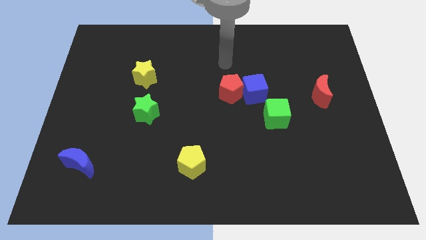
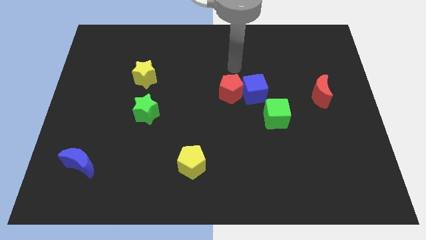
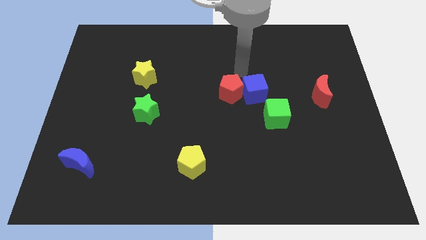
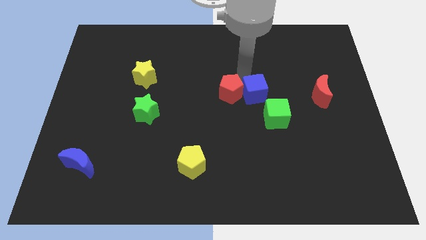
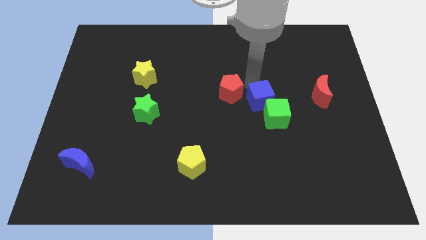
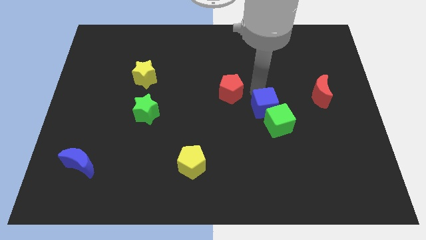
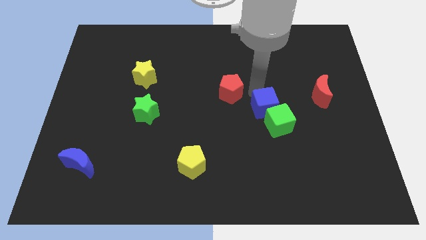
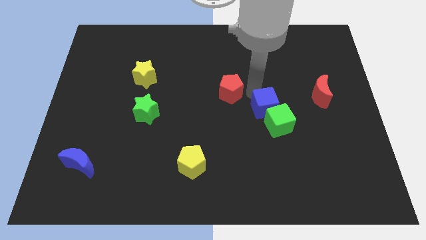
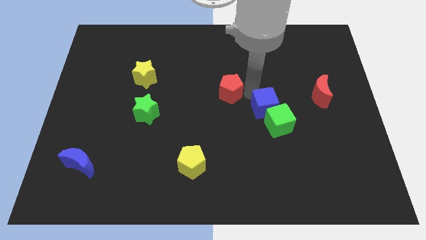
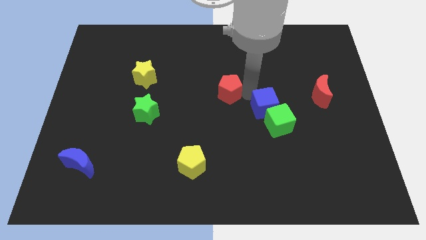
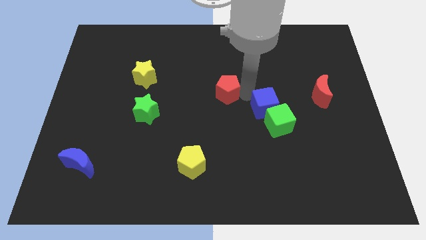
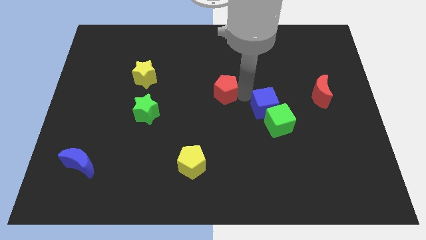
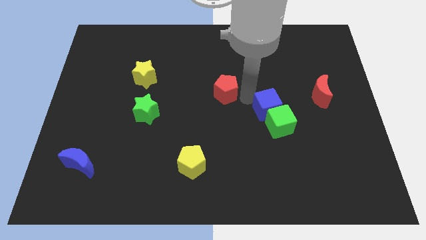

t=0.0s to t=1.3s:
move the red pentagon away from the blue cube

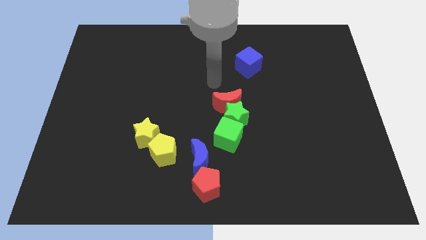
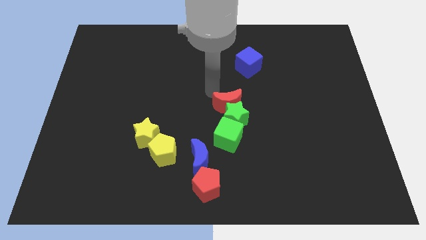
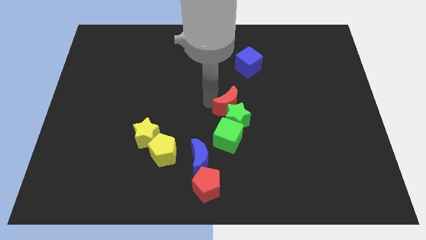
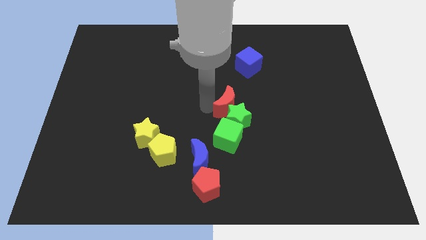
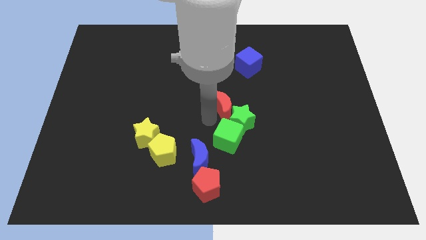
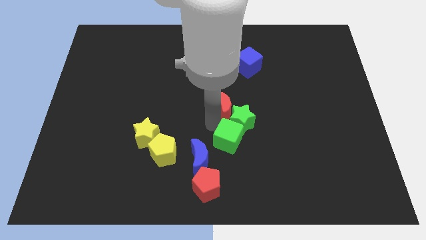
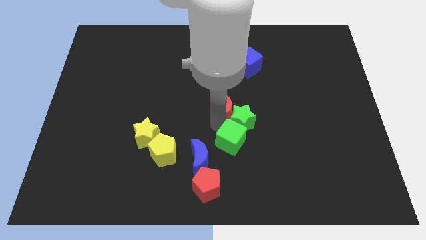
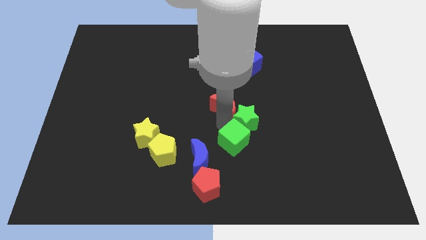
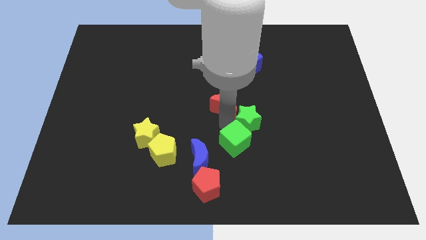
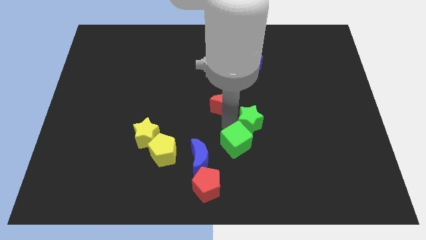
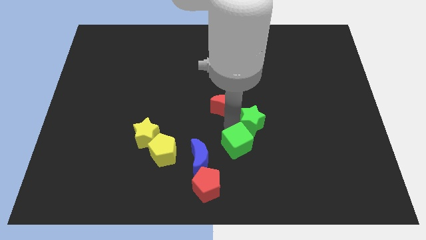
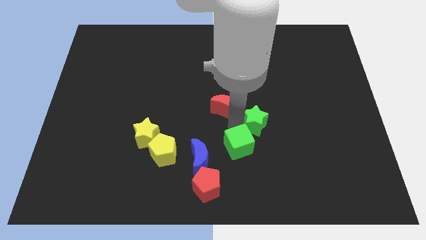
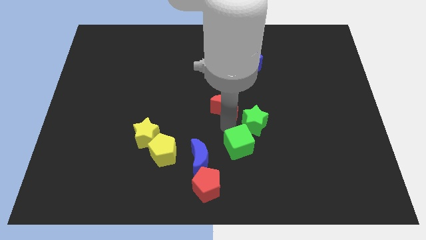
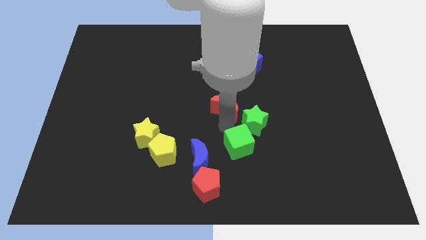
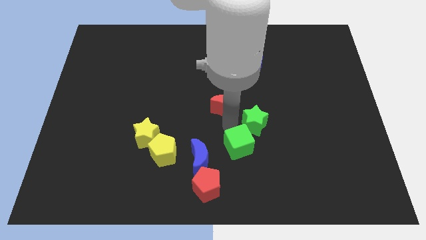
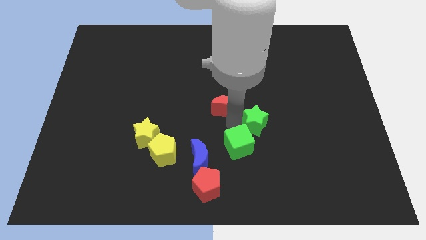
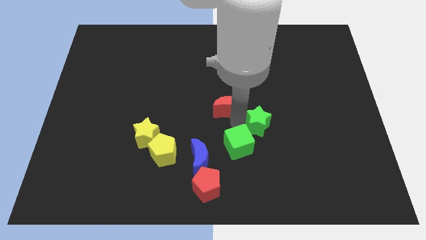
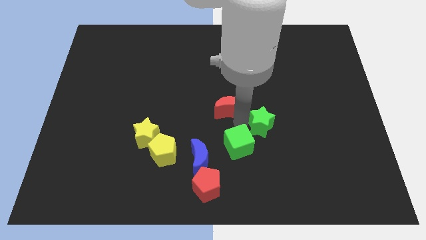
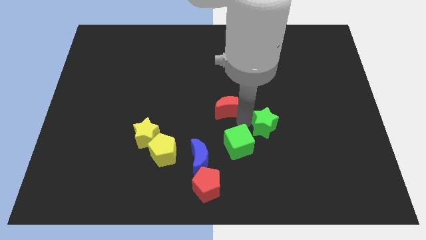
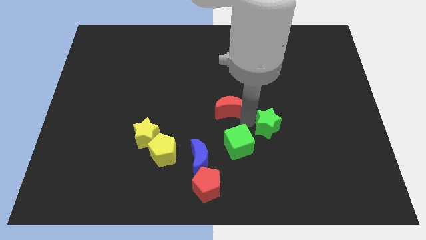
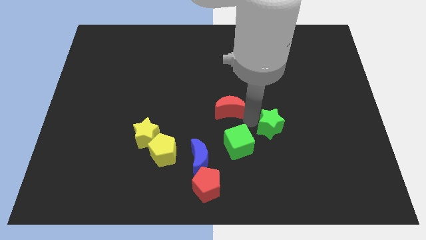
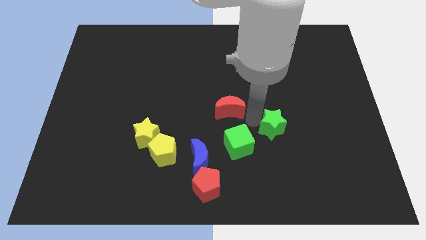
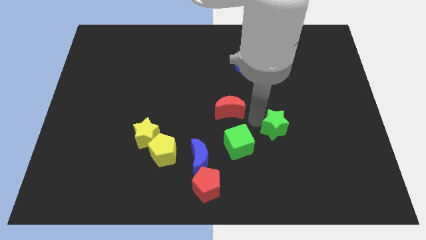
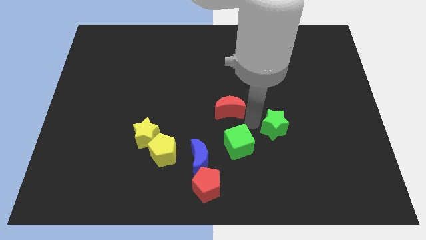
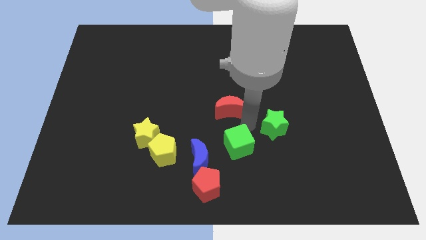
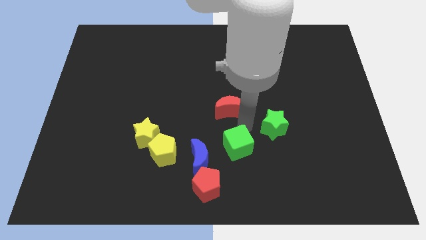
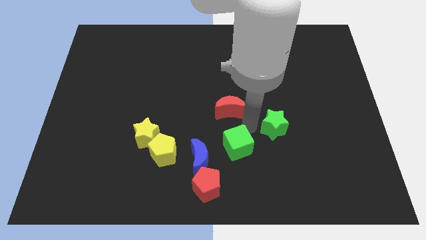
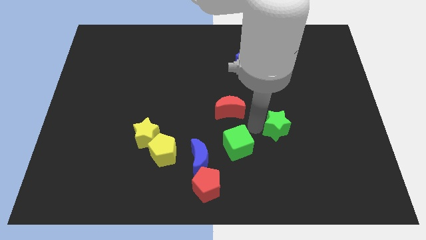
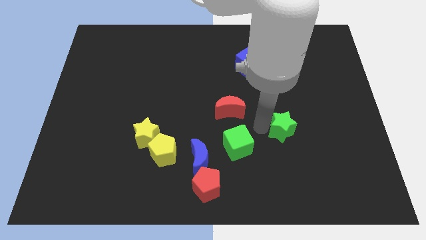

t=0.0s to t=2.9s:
move the green star away from the red moon and green cube

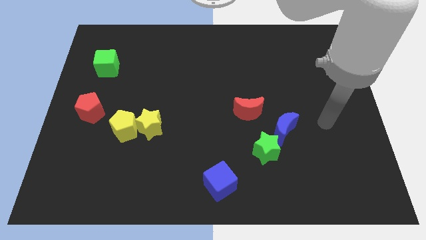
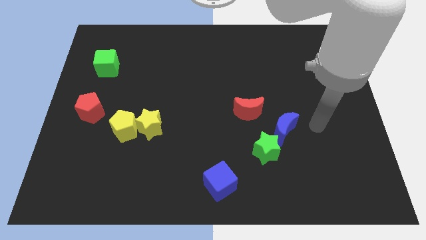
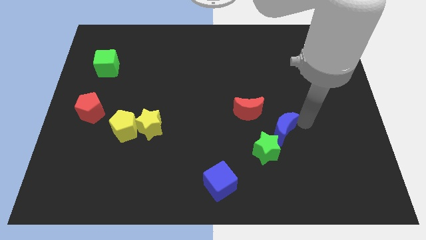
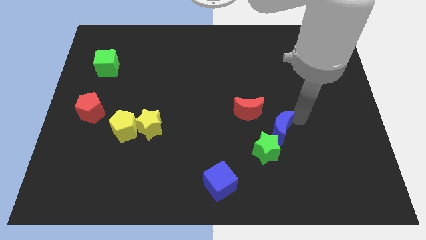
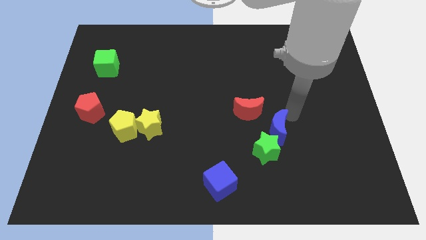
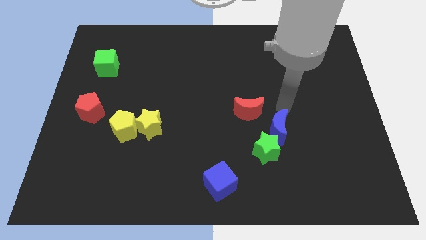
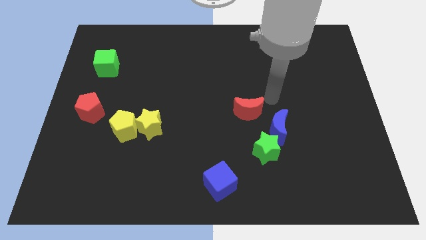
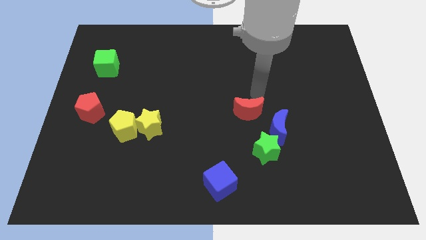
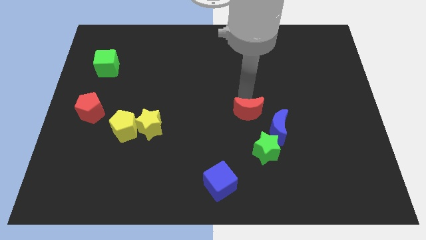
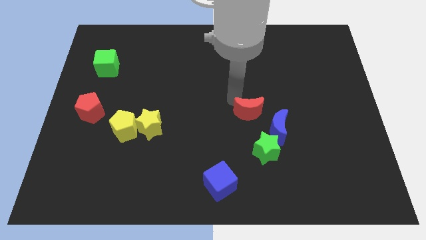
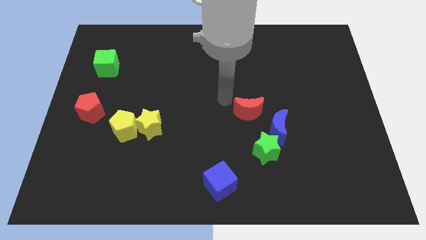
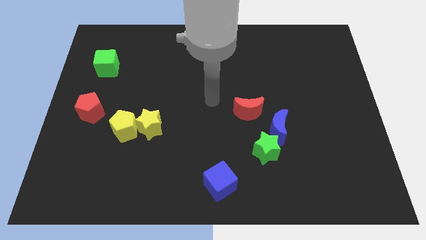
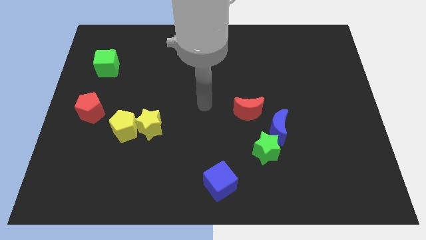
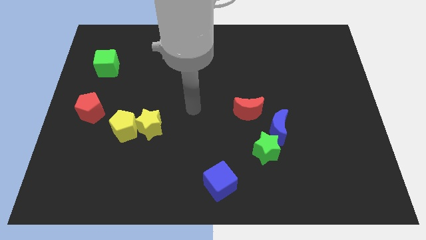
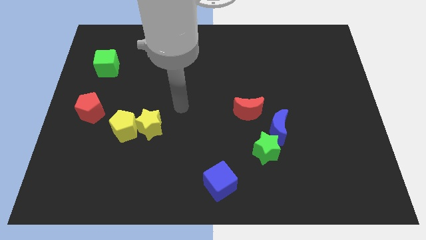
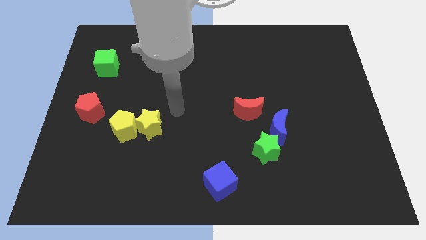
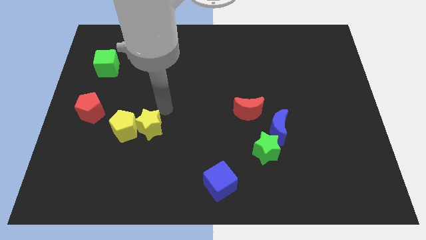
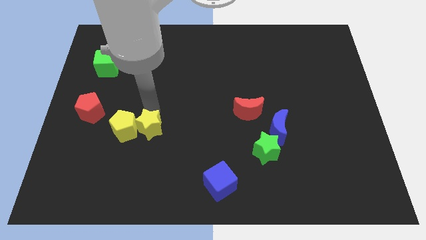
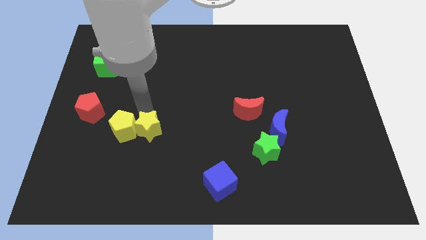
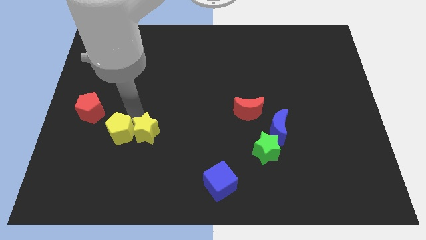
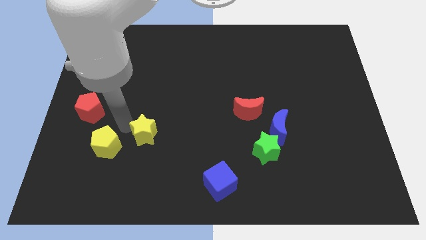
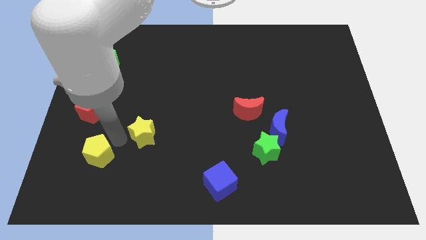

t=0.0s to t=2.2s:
move the yellow star away from the yellow pentagon

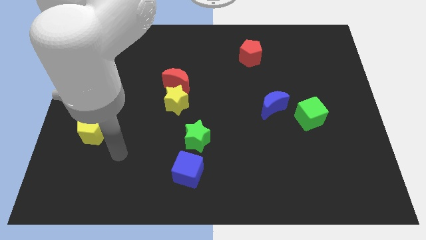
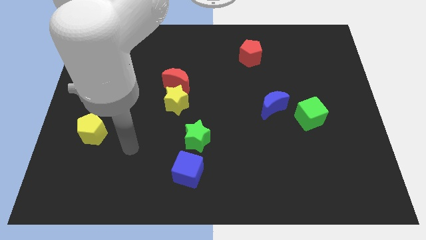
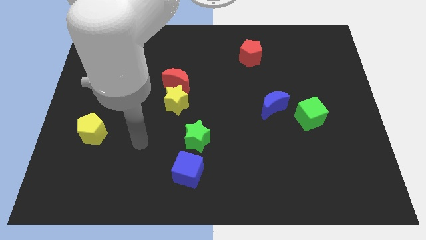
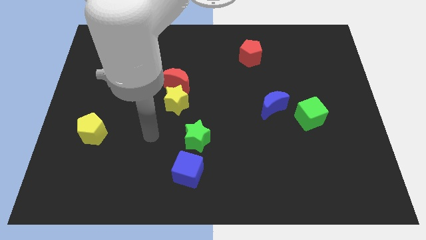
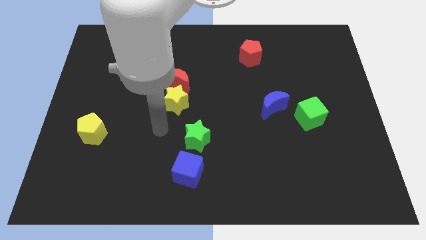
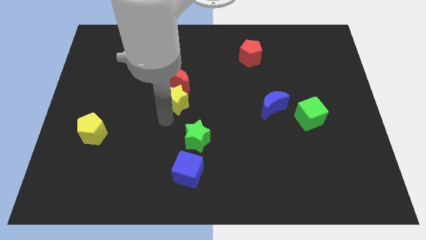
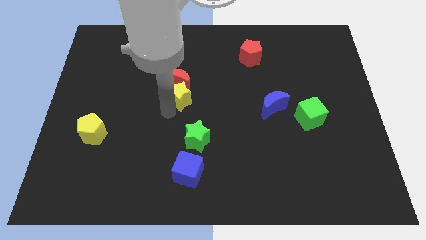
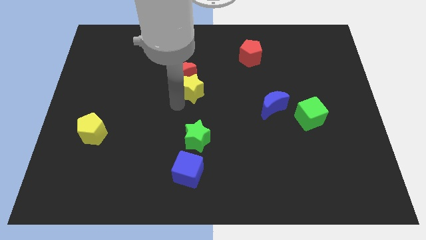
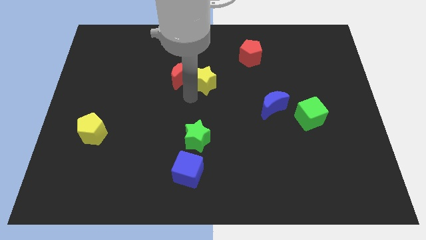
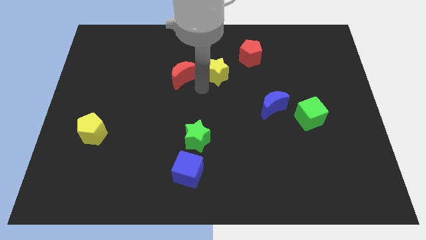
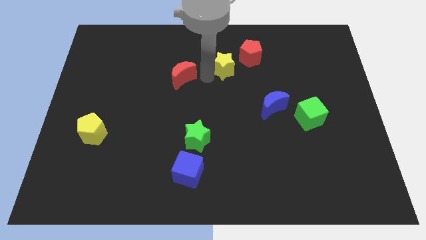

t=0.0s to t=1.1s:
pull the red moon apart from the yellow star

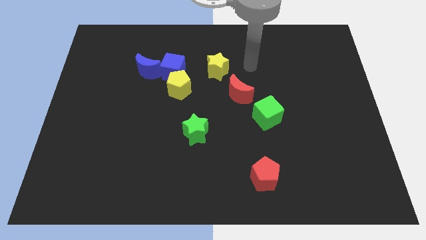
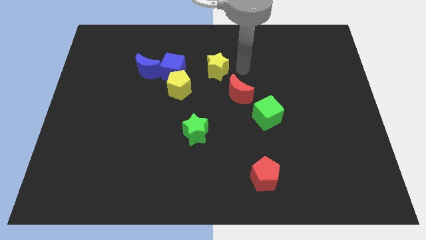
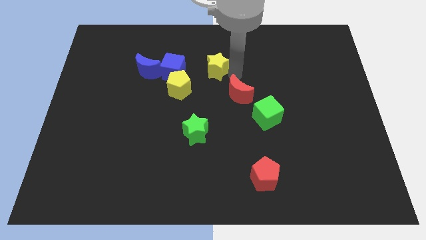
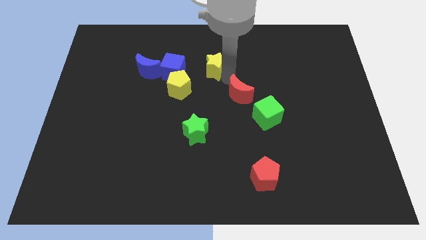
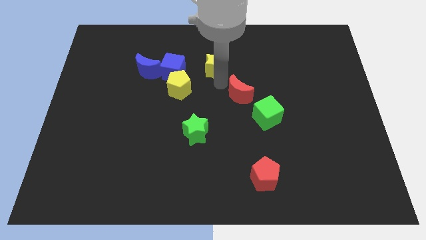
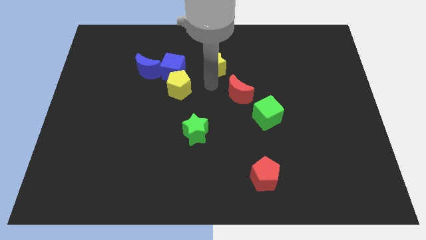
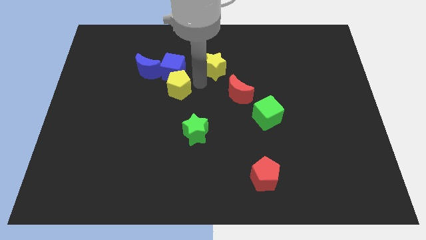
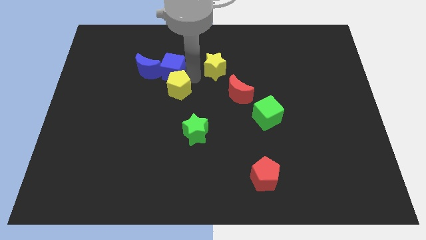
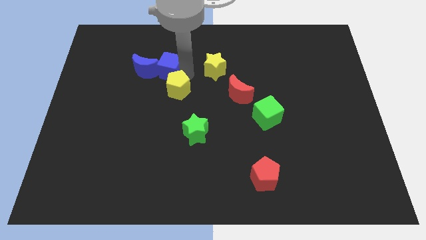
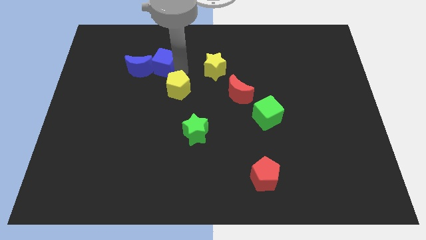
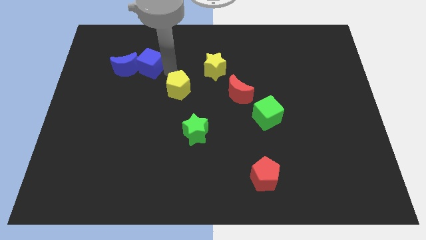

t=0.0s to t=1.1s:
pull the yellow pentagon apart from the blue cube

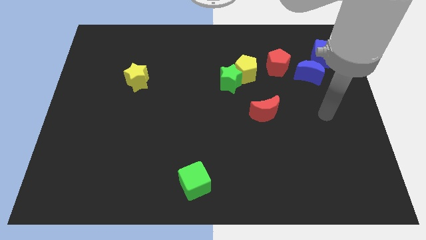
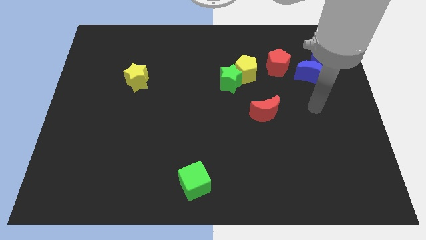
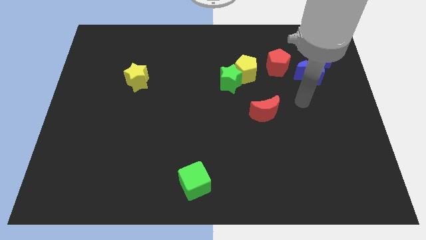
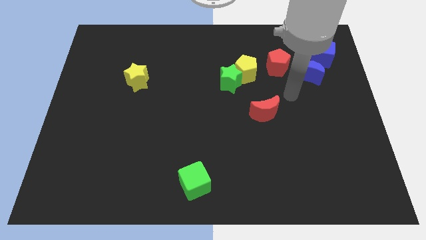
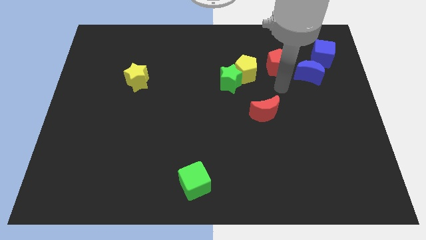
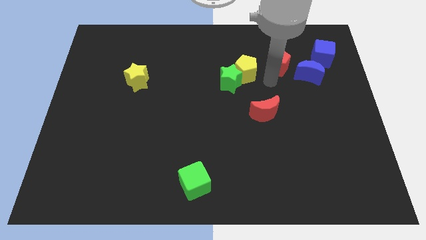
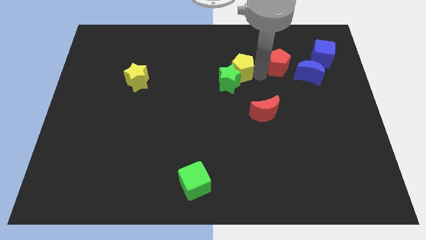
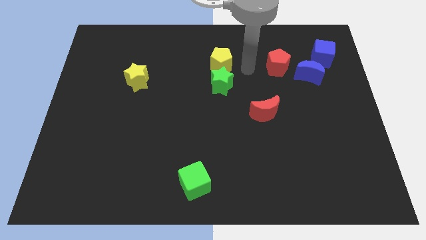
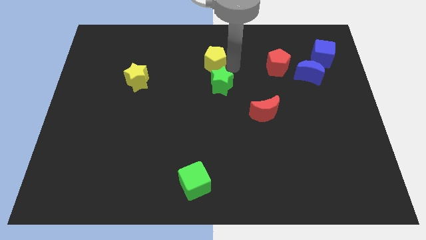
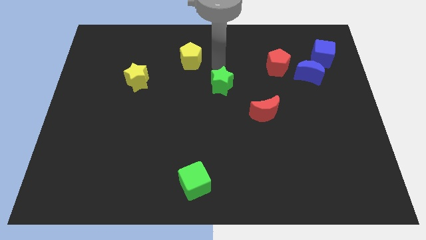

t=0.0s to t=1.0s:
pull the green star apart from the yellow pentagon
